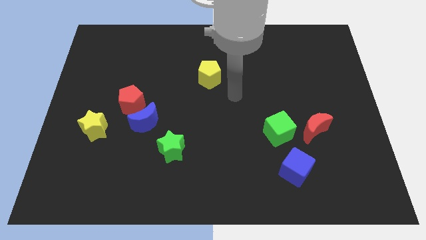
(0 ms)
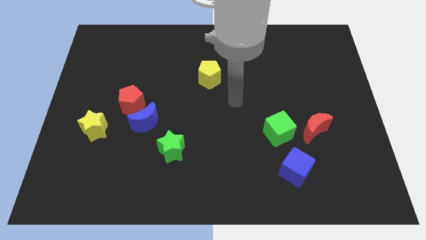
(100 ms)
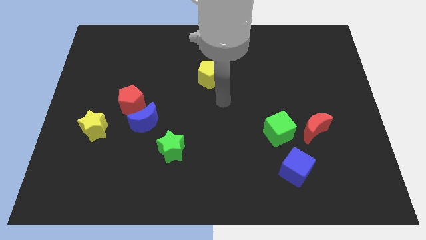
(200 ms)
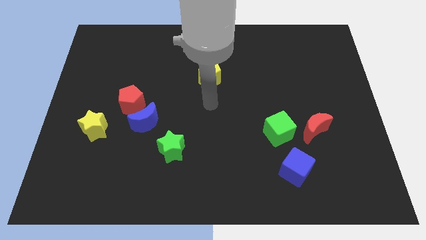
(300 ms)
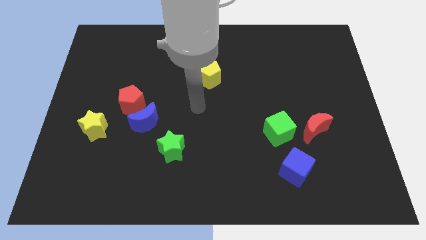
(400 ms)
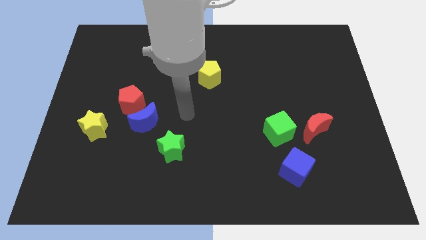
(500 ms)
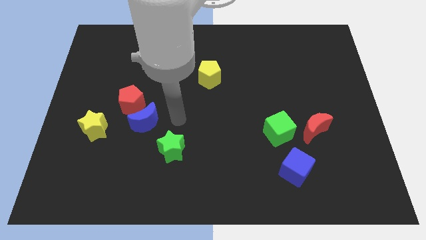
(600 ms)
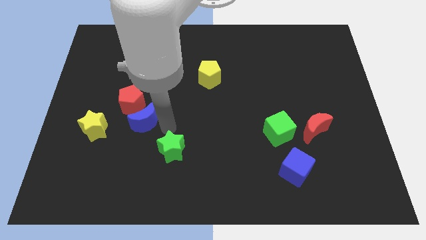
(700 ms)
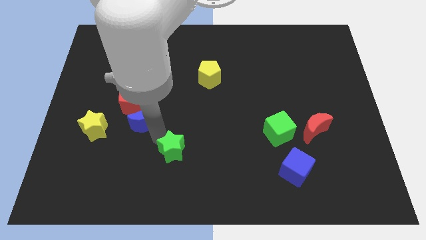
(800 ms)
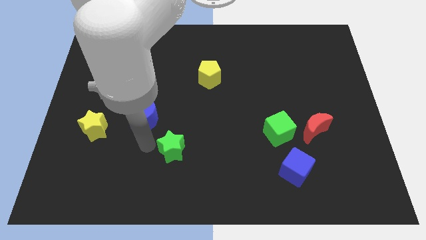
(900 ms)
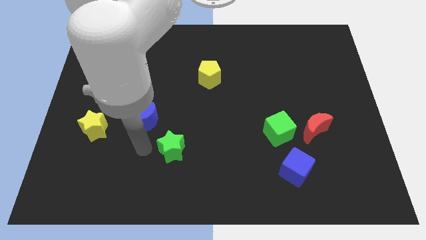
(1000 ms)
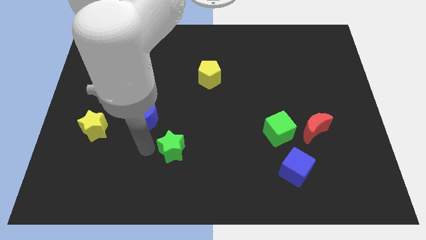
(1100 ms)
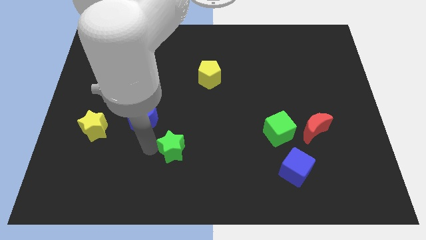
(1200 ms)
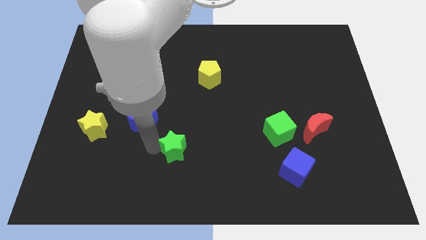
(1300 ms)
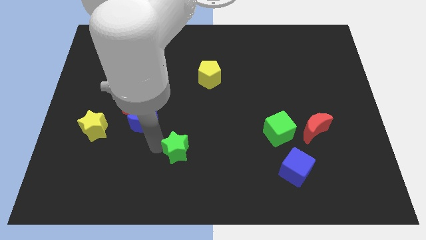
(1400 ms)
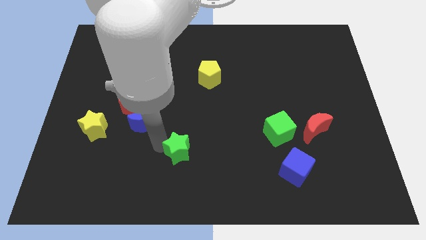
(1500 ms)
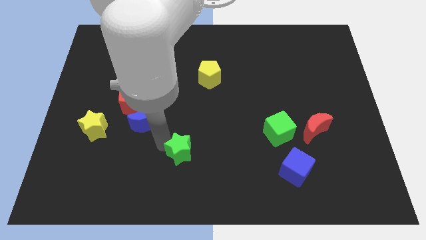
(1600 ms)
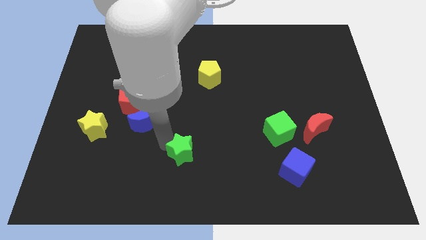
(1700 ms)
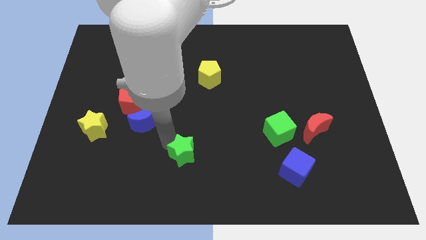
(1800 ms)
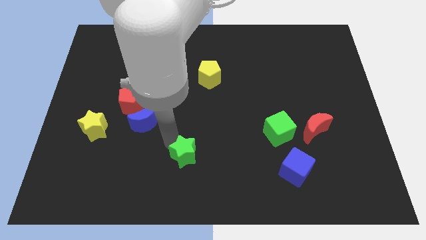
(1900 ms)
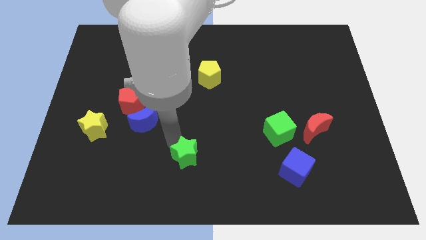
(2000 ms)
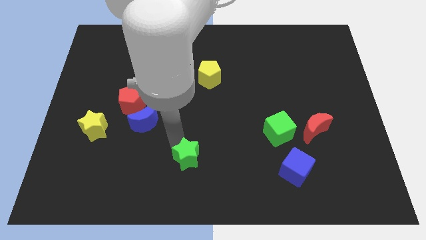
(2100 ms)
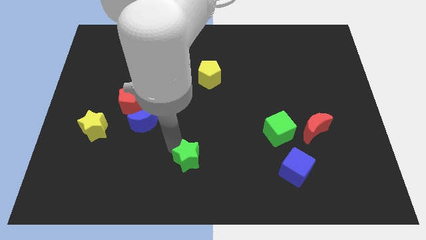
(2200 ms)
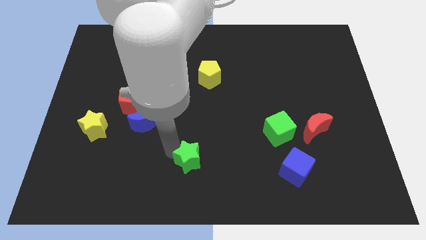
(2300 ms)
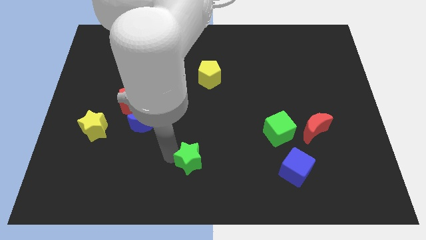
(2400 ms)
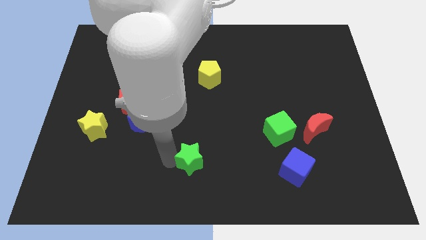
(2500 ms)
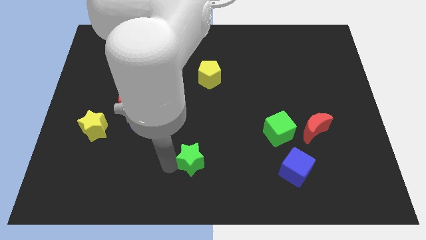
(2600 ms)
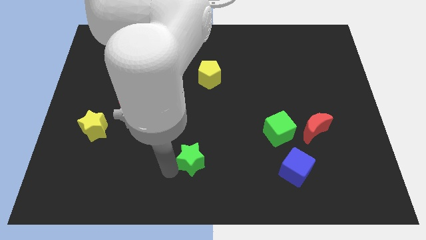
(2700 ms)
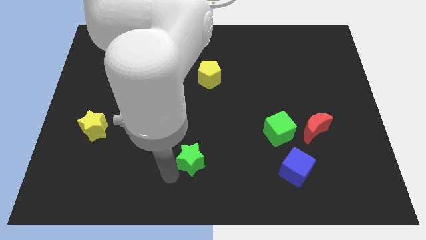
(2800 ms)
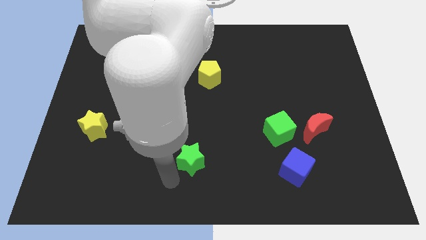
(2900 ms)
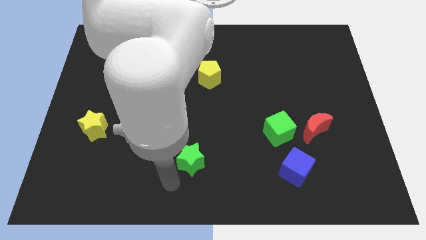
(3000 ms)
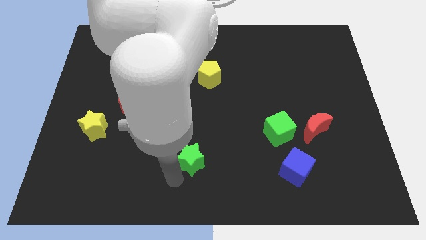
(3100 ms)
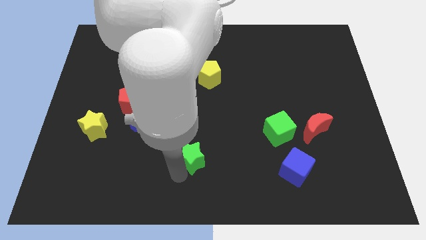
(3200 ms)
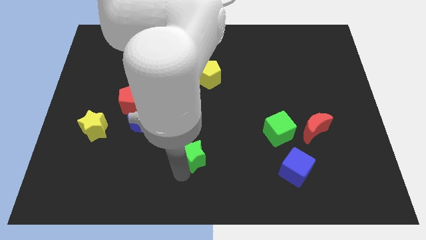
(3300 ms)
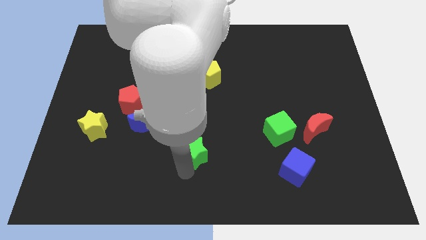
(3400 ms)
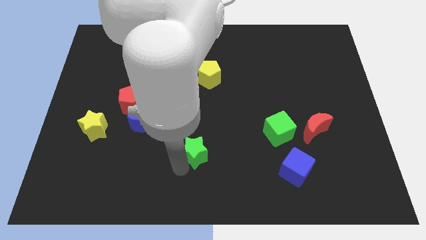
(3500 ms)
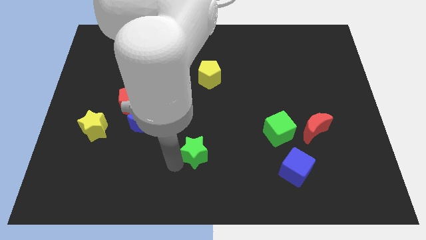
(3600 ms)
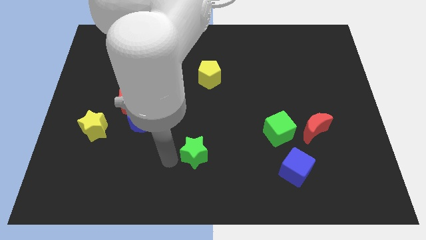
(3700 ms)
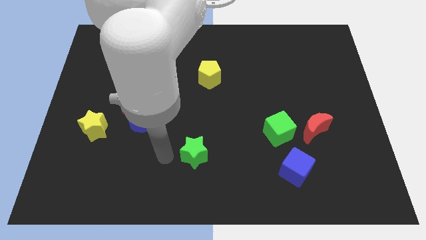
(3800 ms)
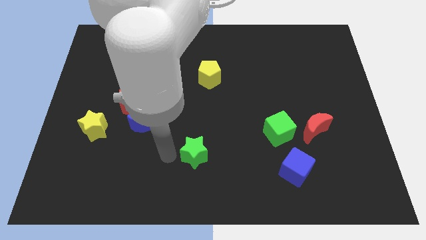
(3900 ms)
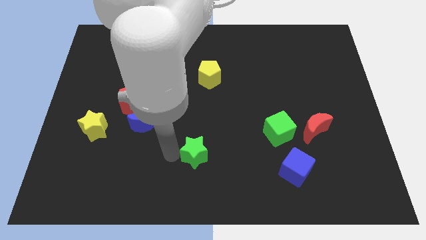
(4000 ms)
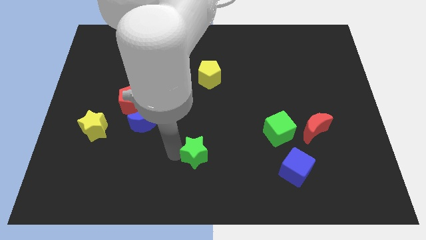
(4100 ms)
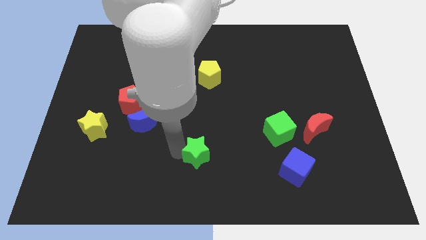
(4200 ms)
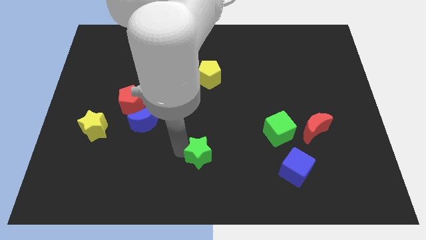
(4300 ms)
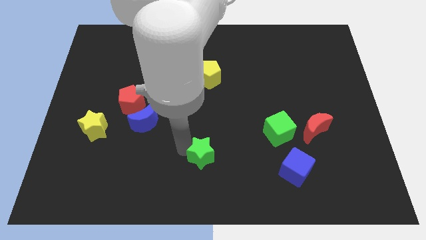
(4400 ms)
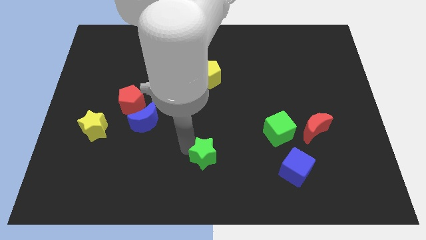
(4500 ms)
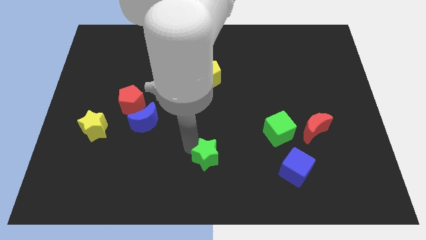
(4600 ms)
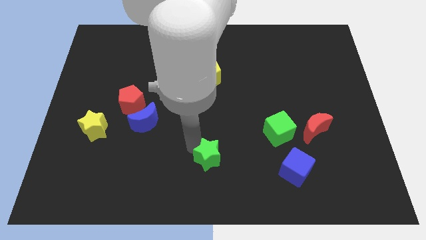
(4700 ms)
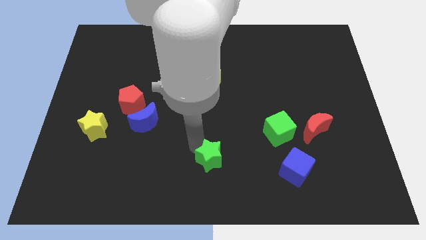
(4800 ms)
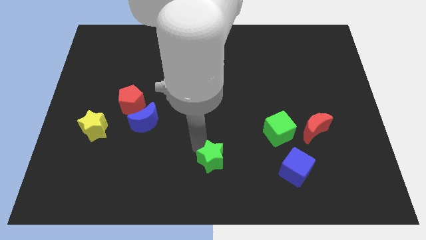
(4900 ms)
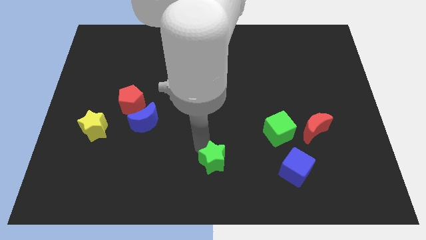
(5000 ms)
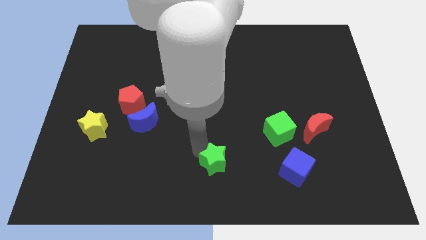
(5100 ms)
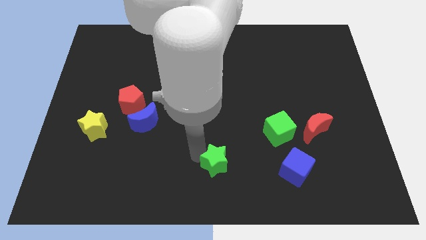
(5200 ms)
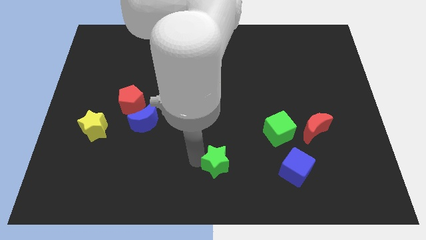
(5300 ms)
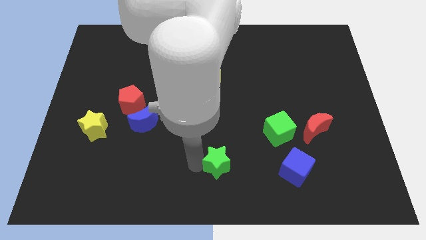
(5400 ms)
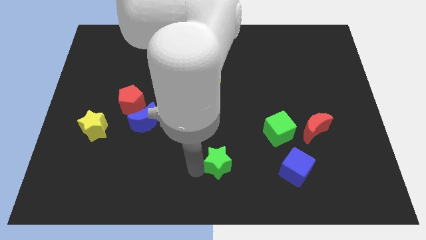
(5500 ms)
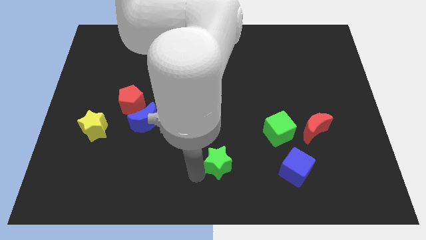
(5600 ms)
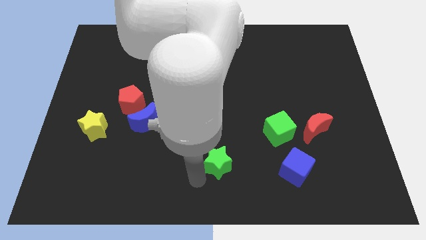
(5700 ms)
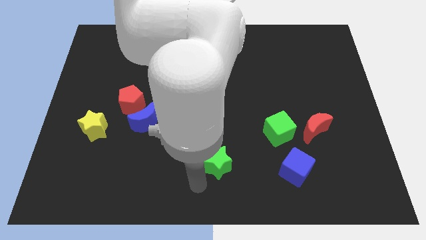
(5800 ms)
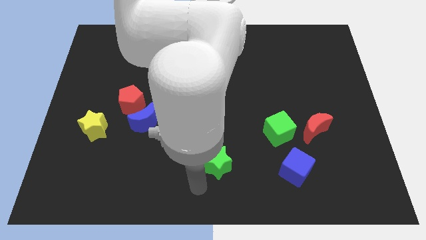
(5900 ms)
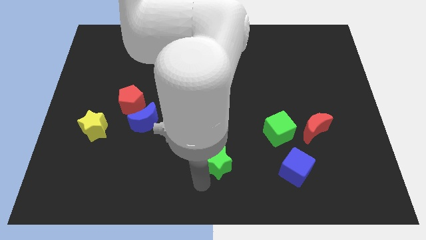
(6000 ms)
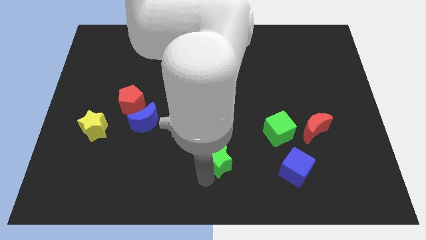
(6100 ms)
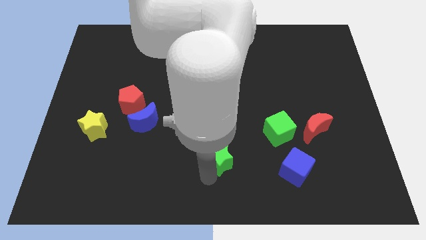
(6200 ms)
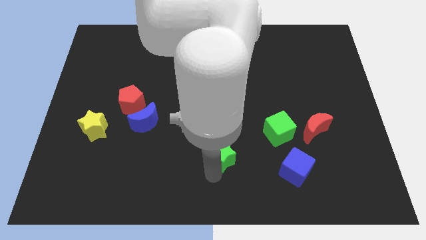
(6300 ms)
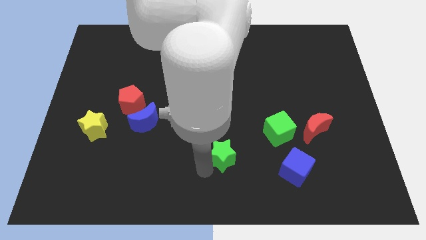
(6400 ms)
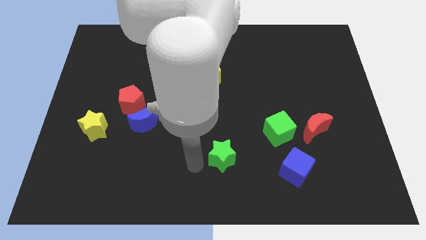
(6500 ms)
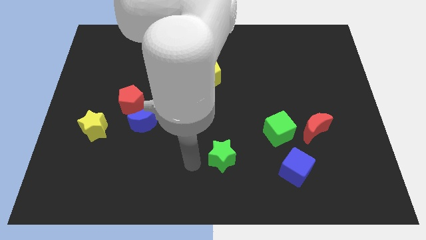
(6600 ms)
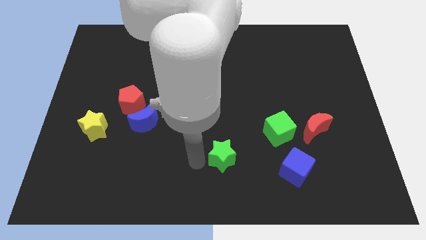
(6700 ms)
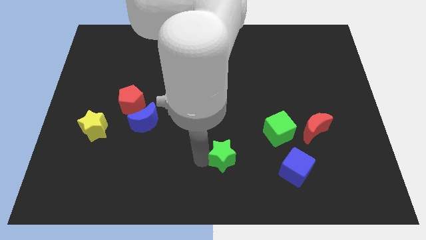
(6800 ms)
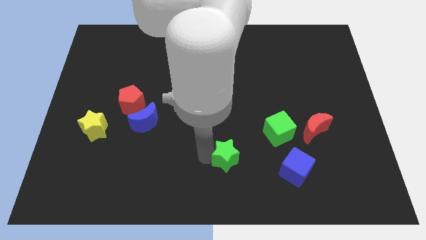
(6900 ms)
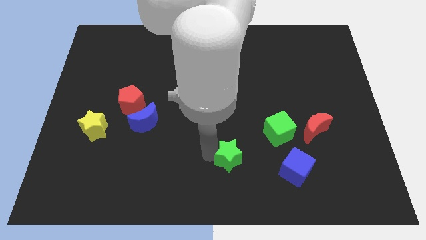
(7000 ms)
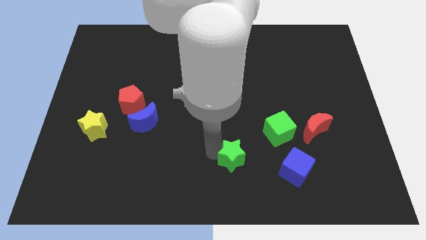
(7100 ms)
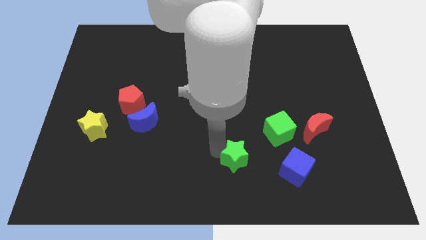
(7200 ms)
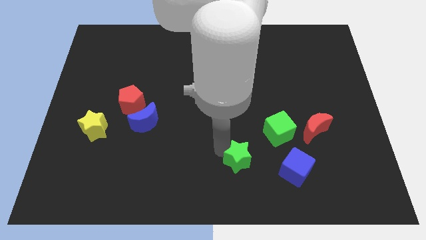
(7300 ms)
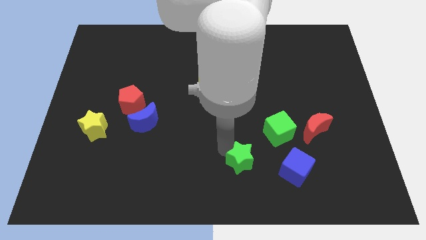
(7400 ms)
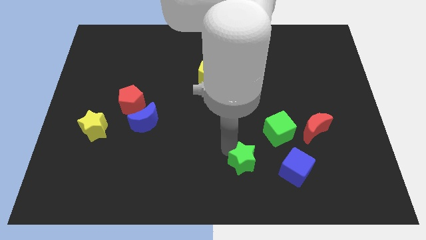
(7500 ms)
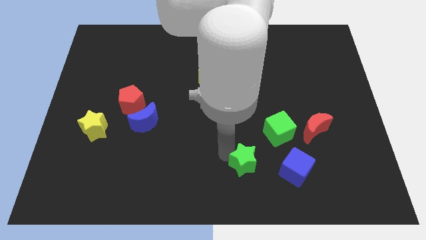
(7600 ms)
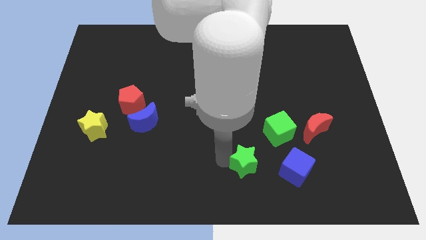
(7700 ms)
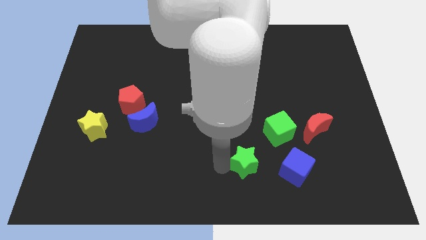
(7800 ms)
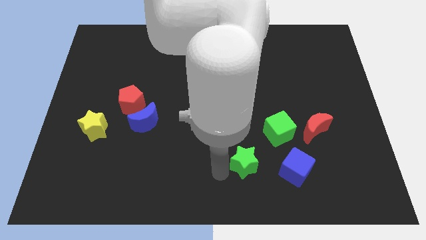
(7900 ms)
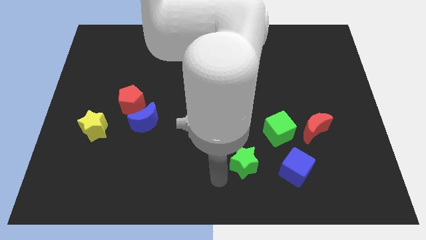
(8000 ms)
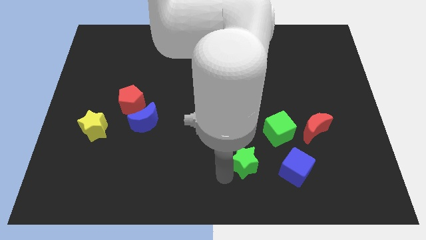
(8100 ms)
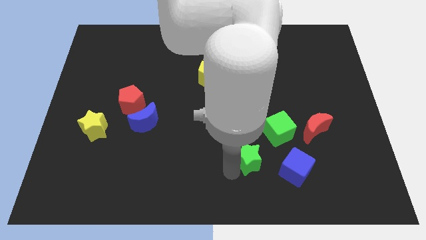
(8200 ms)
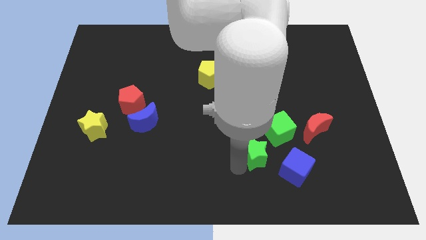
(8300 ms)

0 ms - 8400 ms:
slide the green star diagonally up and to the left of the blue cube
